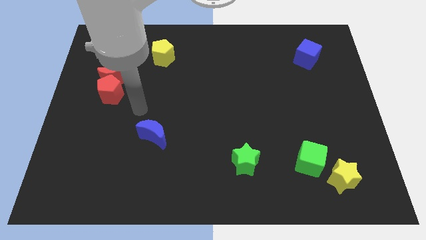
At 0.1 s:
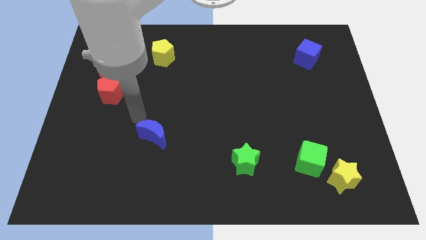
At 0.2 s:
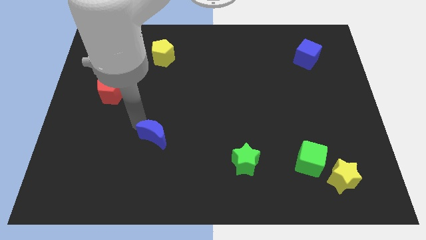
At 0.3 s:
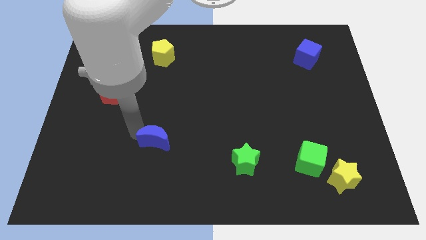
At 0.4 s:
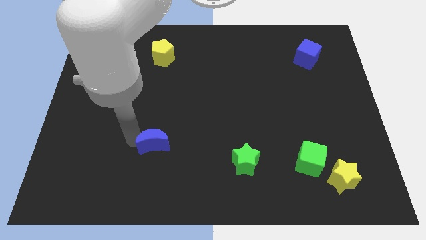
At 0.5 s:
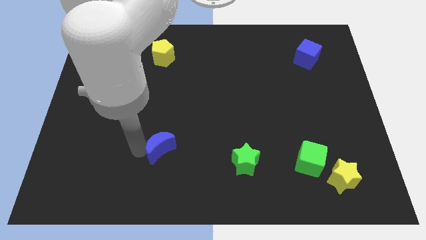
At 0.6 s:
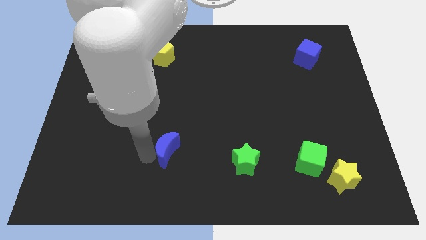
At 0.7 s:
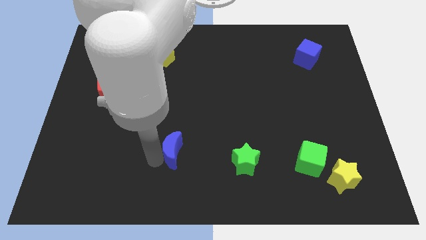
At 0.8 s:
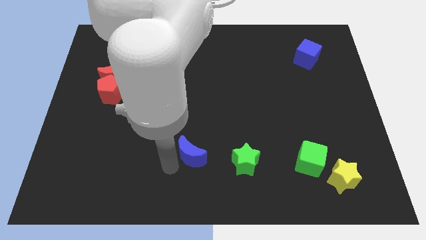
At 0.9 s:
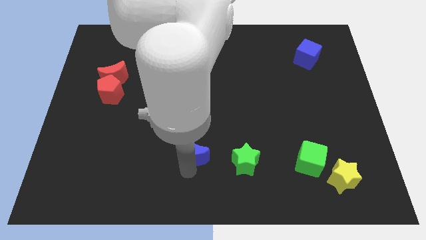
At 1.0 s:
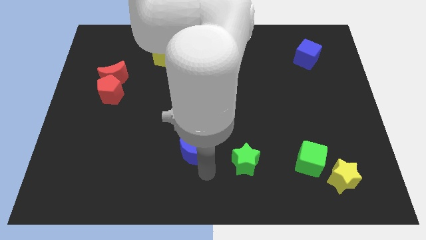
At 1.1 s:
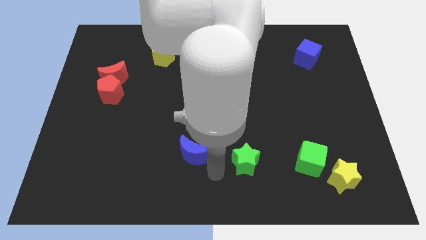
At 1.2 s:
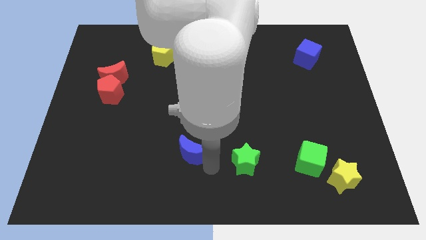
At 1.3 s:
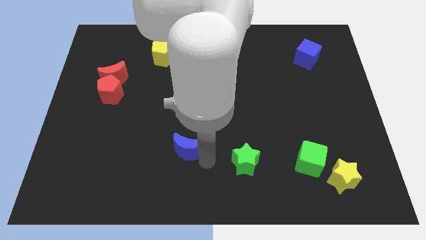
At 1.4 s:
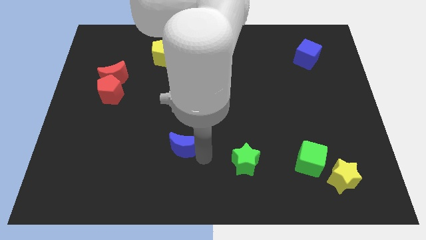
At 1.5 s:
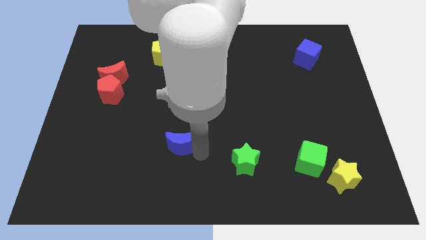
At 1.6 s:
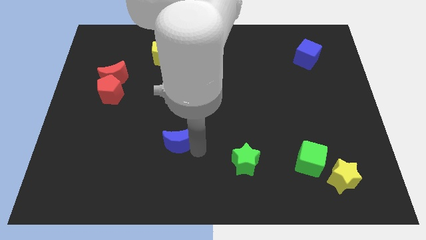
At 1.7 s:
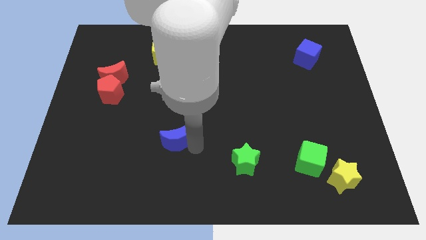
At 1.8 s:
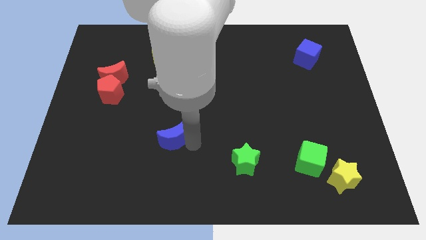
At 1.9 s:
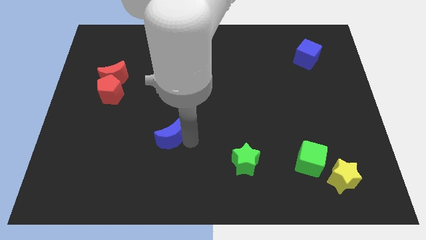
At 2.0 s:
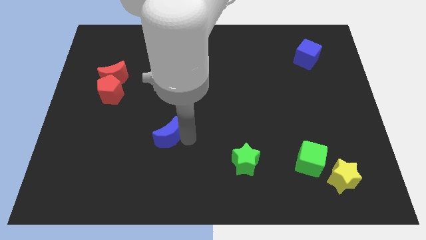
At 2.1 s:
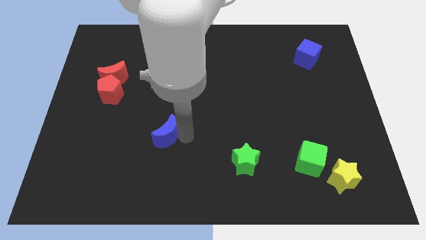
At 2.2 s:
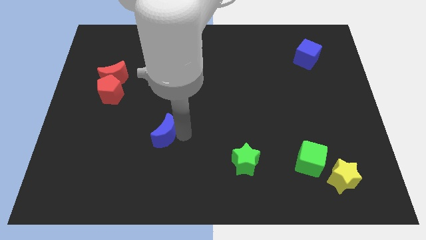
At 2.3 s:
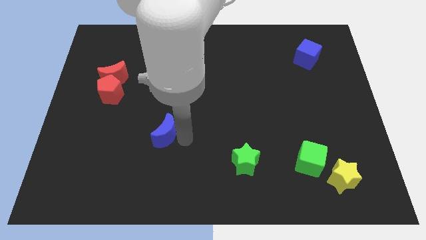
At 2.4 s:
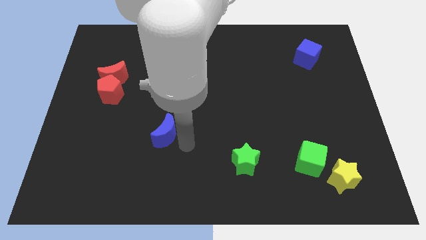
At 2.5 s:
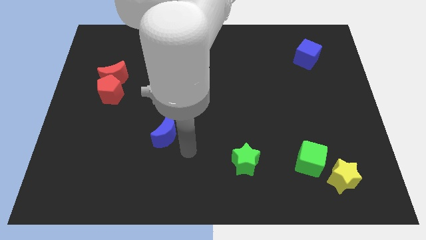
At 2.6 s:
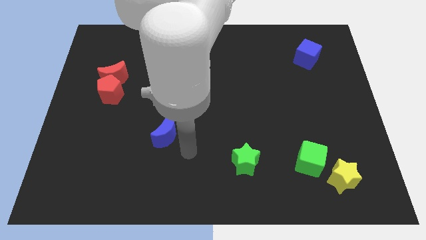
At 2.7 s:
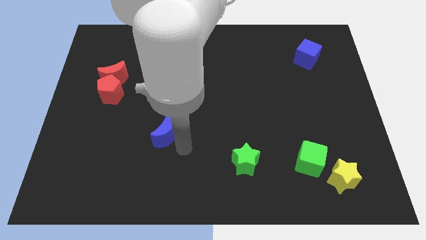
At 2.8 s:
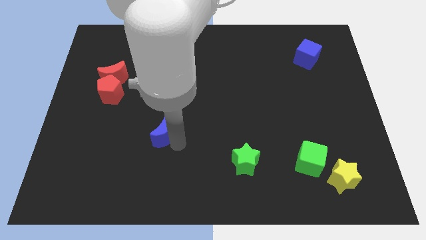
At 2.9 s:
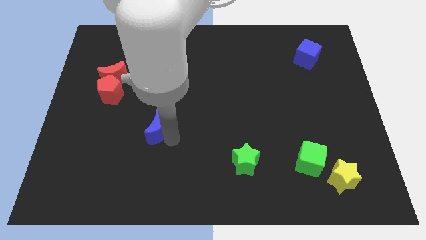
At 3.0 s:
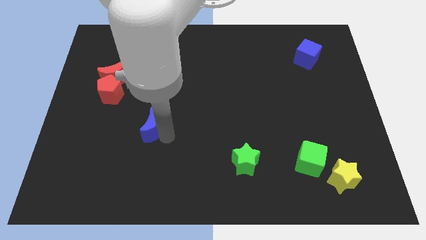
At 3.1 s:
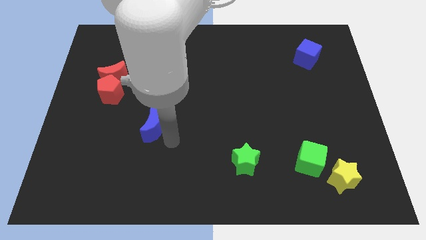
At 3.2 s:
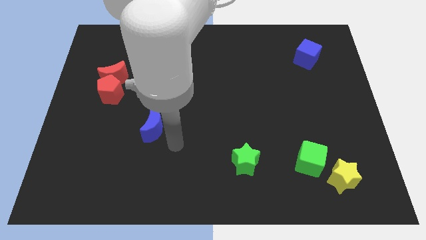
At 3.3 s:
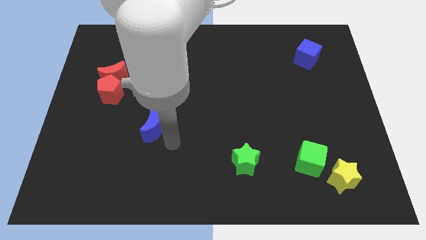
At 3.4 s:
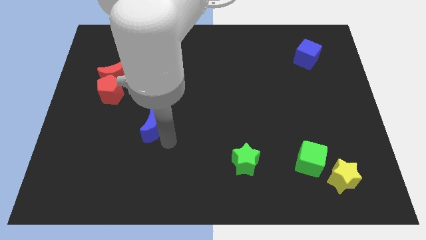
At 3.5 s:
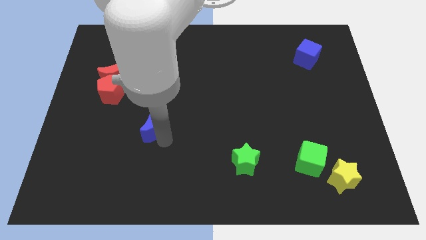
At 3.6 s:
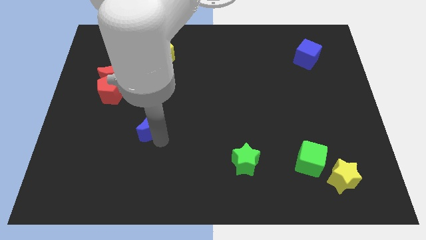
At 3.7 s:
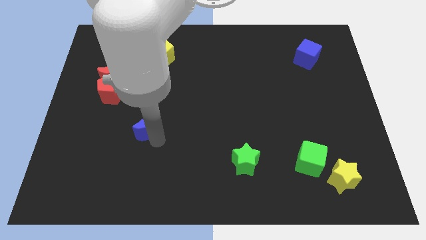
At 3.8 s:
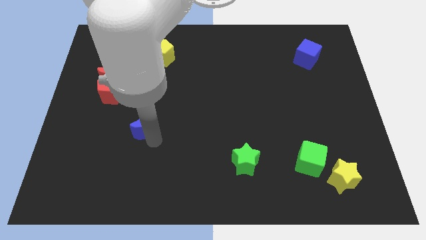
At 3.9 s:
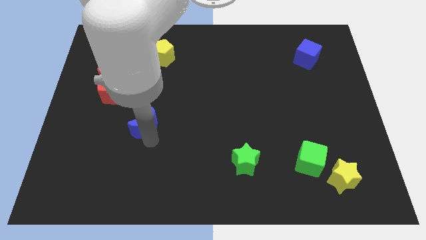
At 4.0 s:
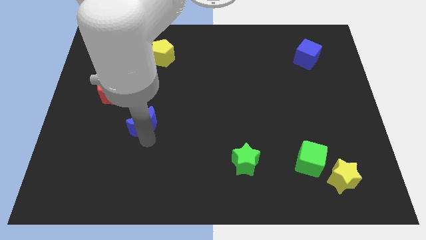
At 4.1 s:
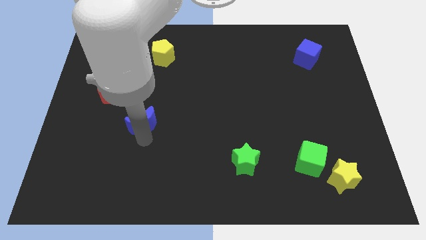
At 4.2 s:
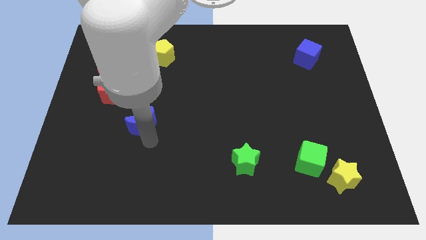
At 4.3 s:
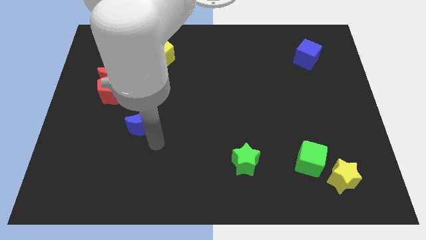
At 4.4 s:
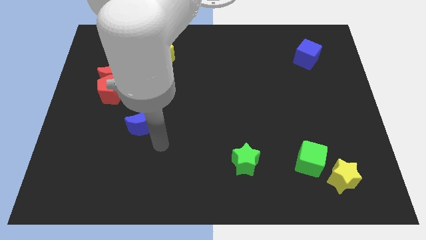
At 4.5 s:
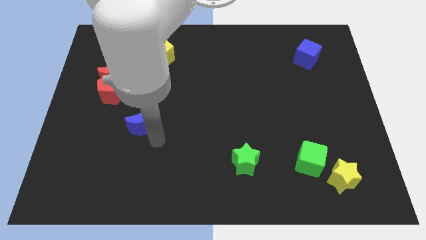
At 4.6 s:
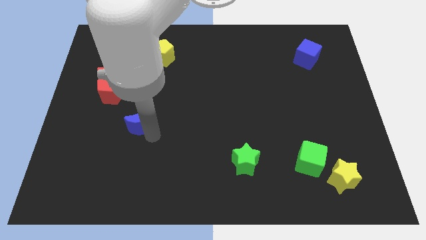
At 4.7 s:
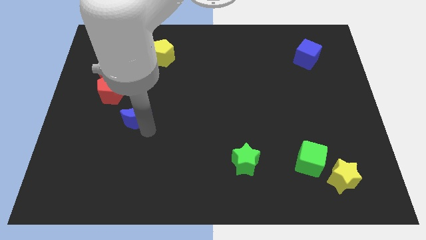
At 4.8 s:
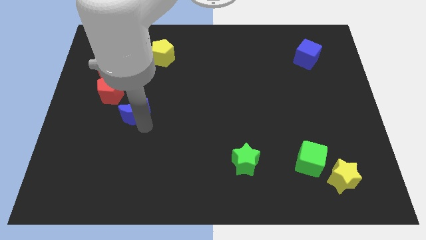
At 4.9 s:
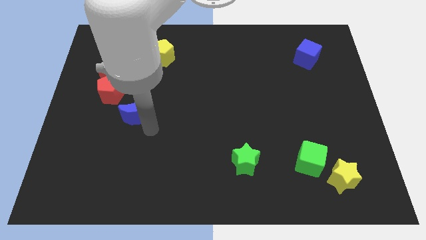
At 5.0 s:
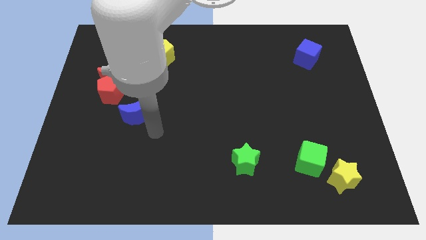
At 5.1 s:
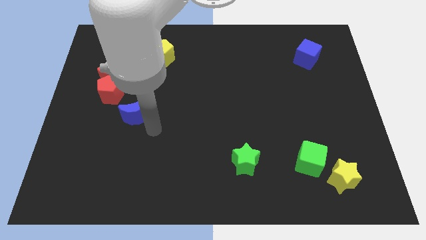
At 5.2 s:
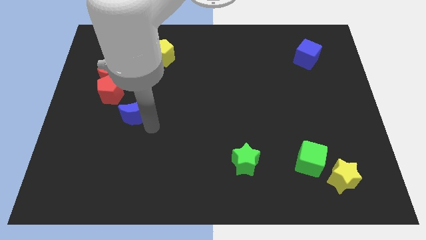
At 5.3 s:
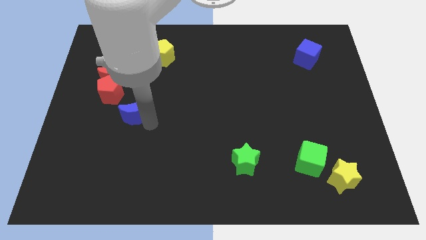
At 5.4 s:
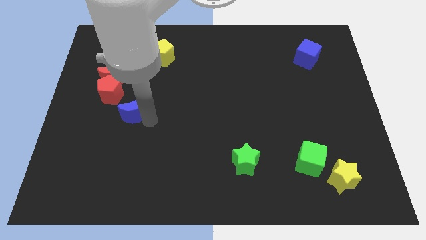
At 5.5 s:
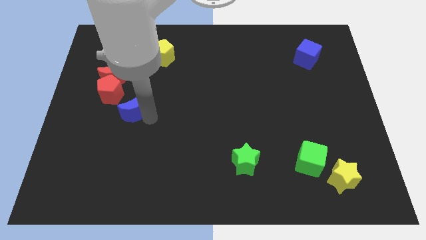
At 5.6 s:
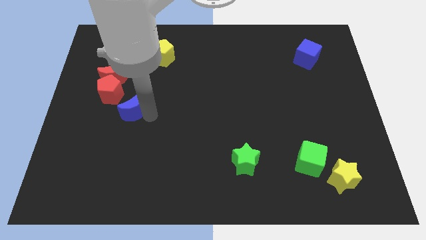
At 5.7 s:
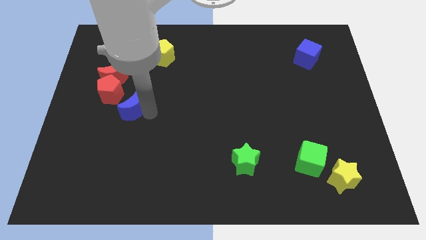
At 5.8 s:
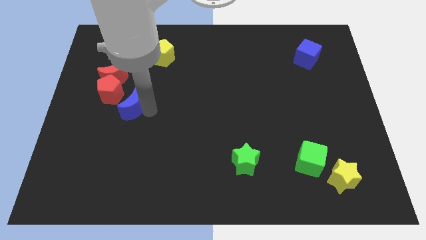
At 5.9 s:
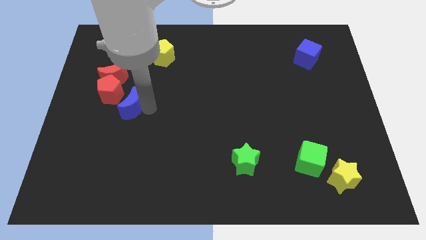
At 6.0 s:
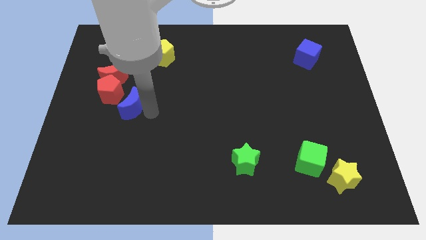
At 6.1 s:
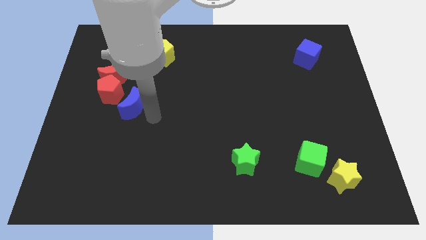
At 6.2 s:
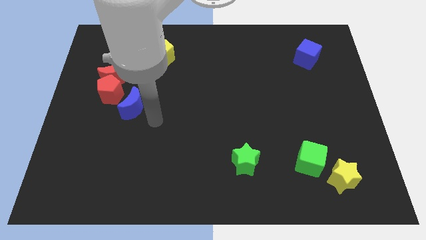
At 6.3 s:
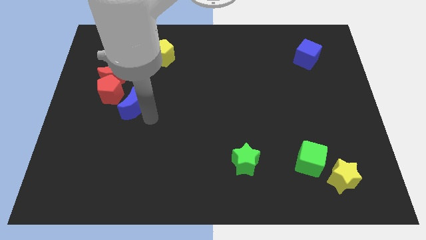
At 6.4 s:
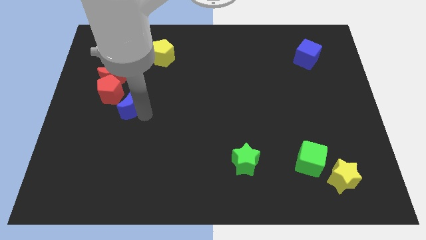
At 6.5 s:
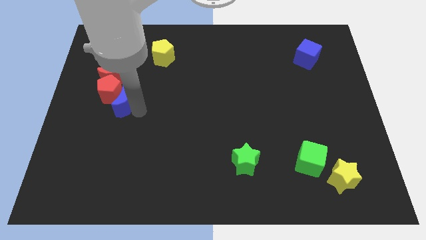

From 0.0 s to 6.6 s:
push the blue moon towards the red pentagon

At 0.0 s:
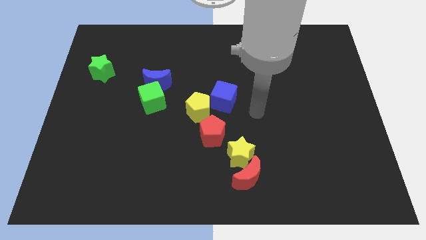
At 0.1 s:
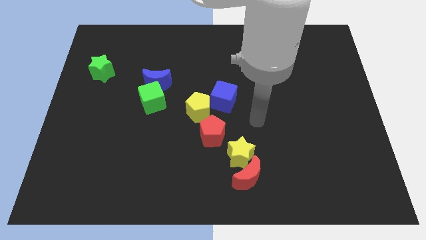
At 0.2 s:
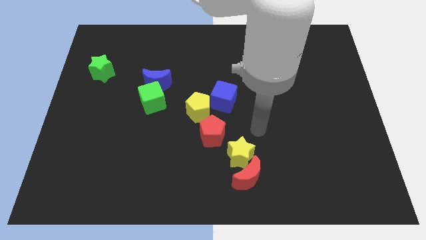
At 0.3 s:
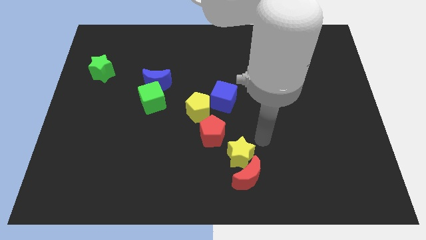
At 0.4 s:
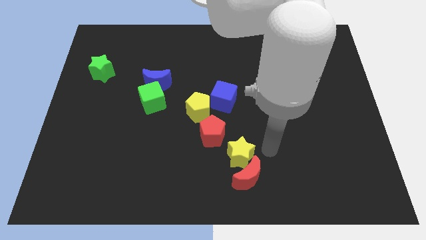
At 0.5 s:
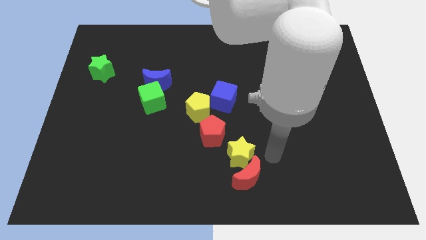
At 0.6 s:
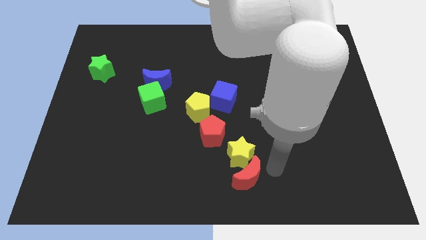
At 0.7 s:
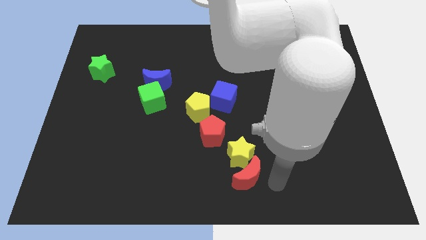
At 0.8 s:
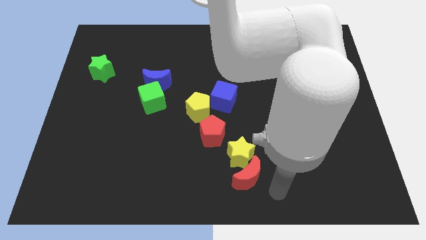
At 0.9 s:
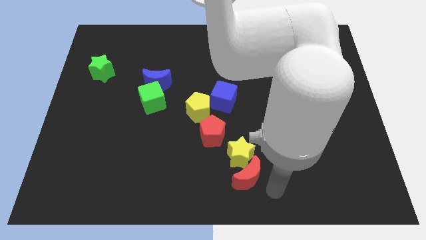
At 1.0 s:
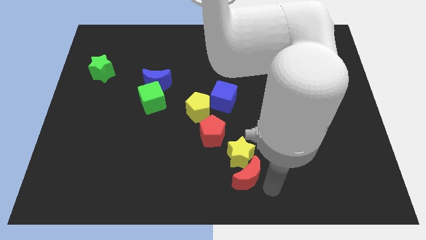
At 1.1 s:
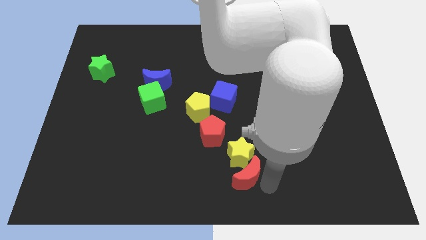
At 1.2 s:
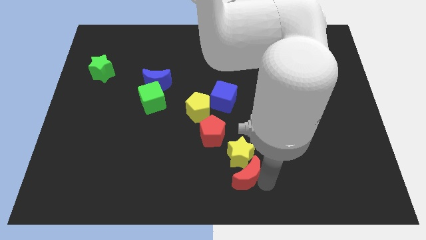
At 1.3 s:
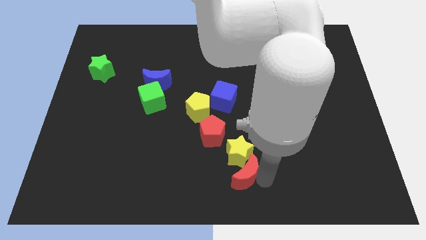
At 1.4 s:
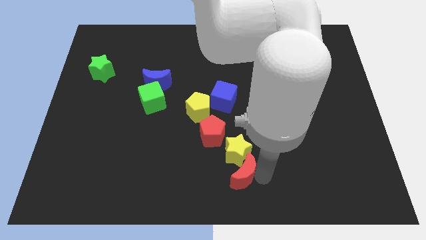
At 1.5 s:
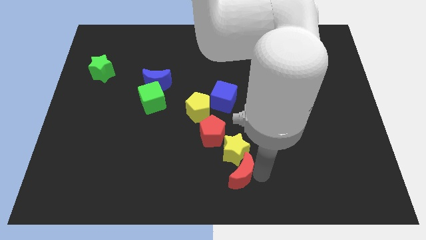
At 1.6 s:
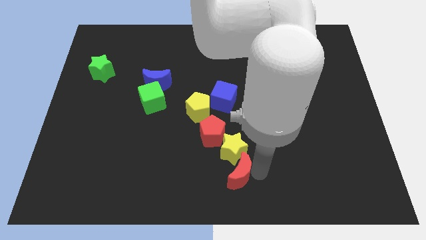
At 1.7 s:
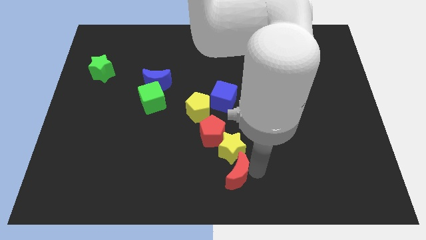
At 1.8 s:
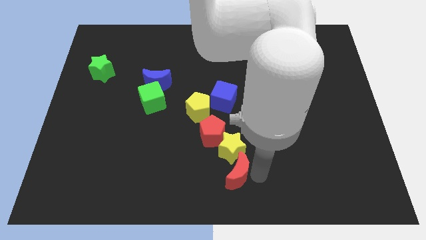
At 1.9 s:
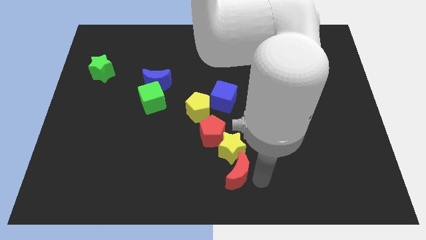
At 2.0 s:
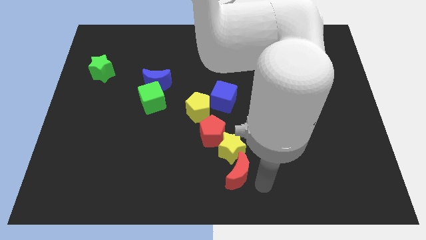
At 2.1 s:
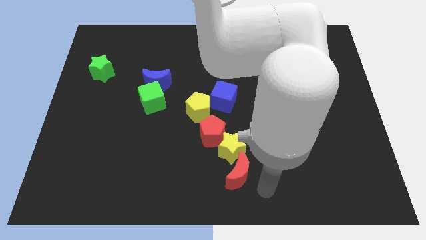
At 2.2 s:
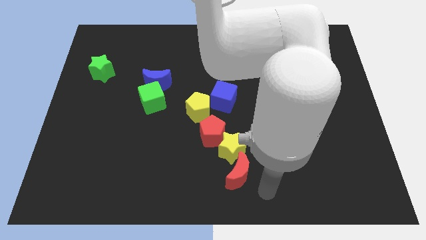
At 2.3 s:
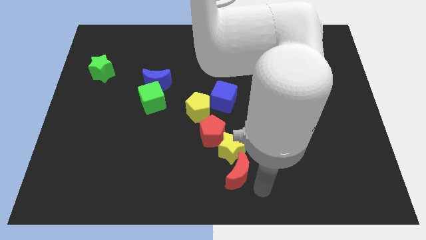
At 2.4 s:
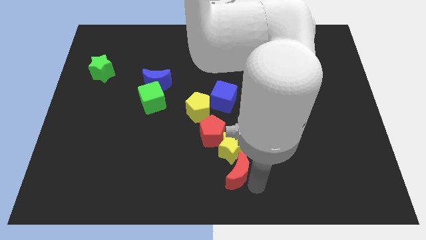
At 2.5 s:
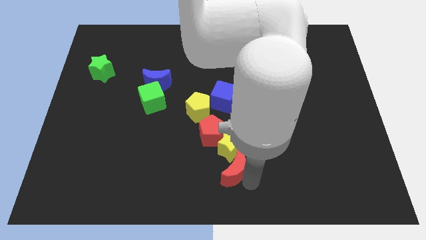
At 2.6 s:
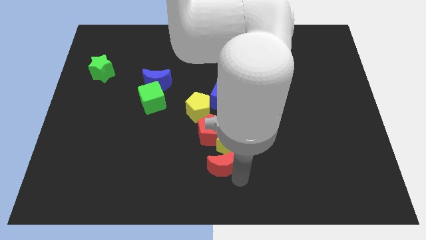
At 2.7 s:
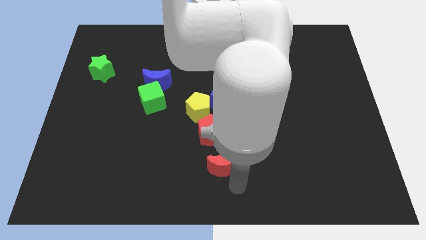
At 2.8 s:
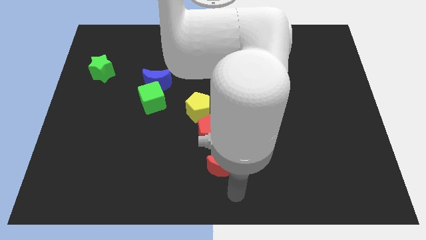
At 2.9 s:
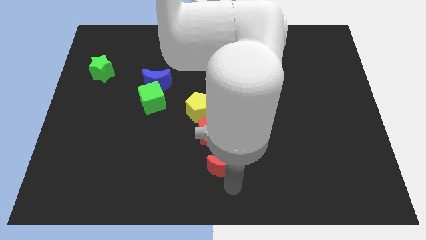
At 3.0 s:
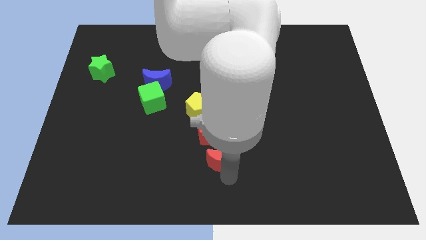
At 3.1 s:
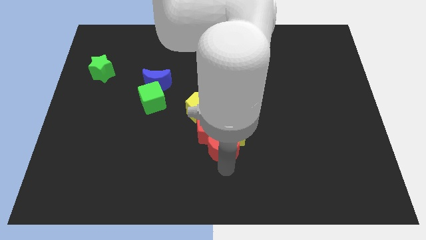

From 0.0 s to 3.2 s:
move the red moon close to the red pentagon
